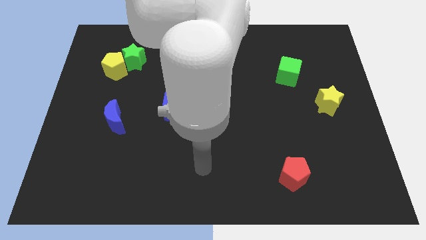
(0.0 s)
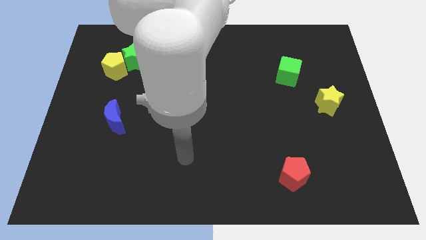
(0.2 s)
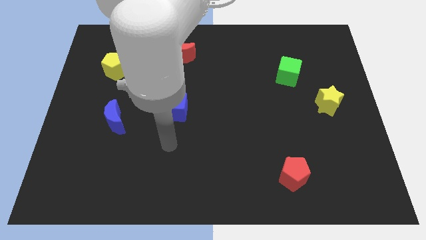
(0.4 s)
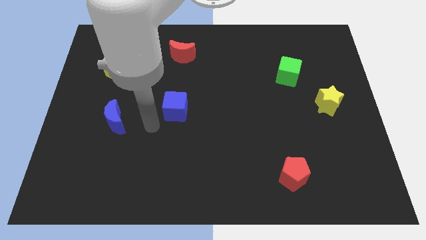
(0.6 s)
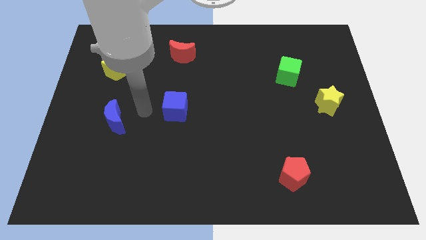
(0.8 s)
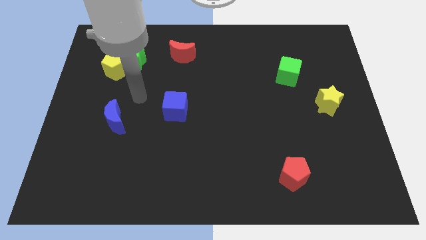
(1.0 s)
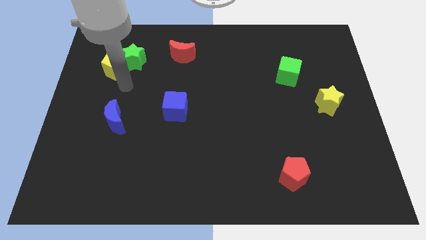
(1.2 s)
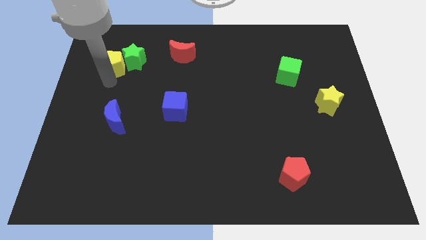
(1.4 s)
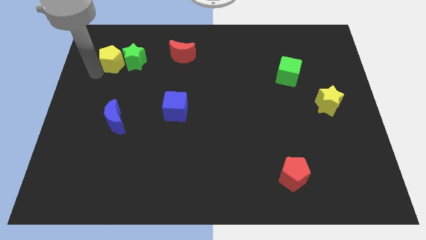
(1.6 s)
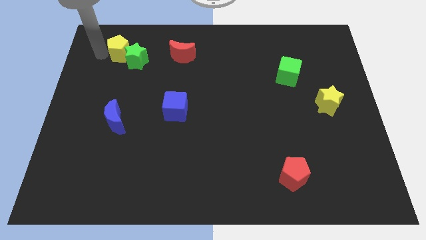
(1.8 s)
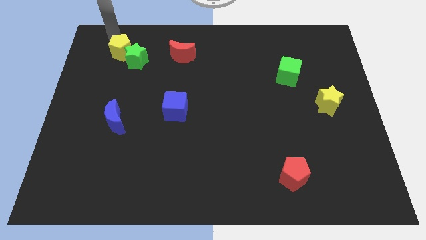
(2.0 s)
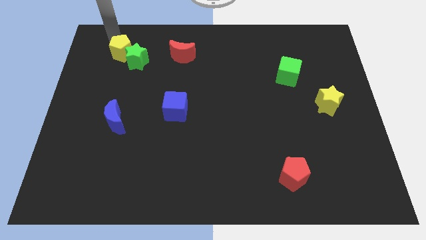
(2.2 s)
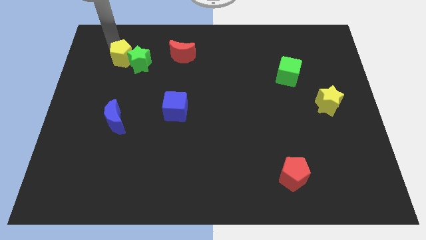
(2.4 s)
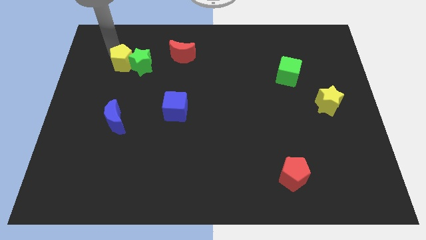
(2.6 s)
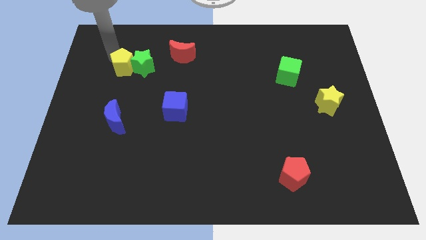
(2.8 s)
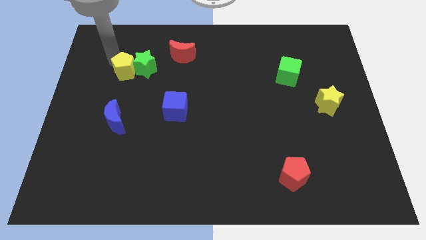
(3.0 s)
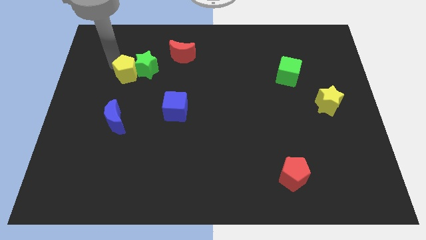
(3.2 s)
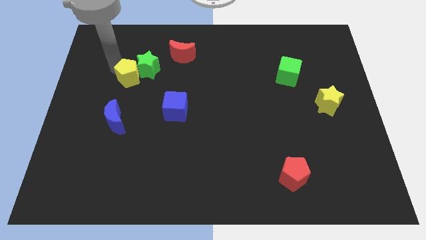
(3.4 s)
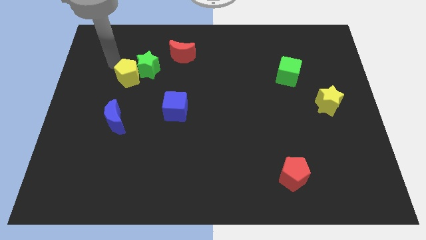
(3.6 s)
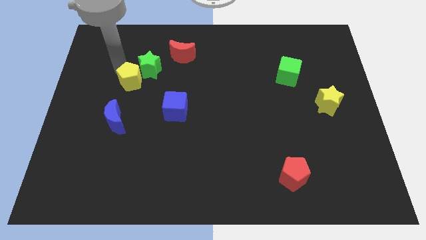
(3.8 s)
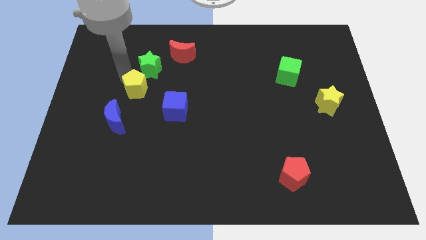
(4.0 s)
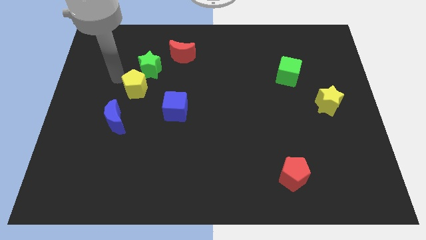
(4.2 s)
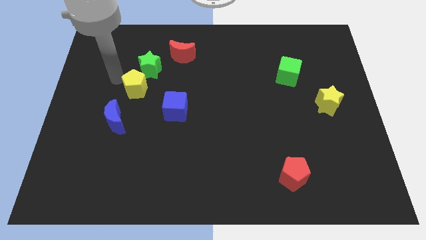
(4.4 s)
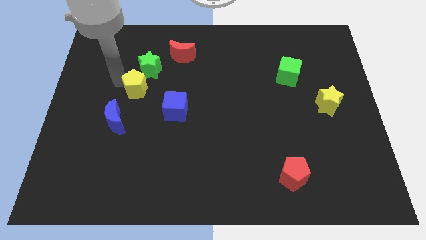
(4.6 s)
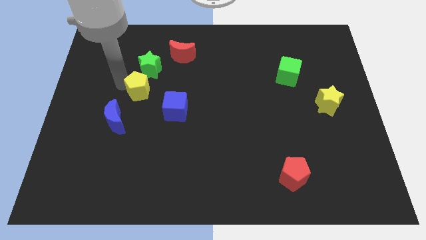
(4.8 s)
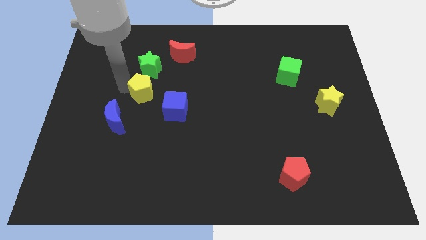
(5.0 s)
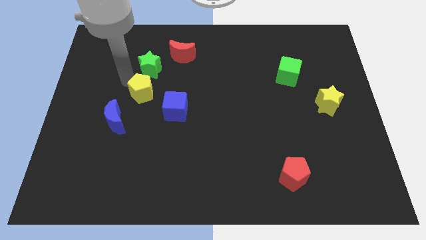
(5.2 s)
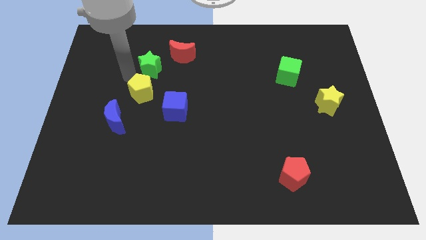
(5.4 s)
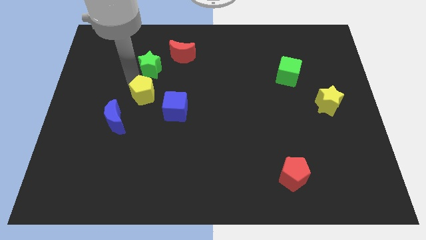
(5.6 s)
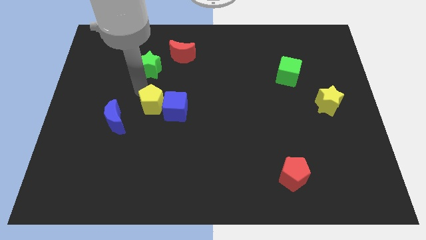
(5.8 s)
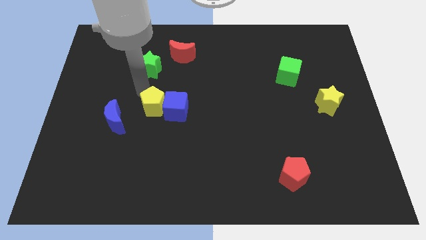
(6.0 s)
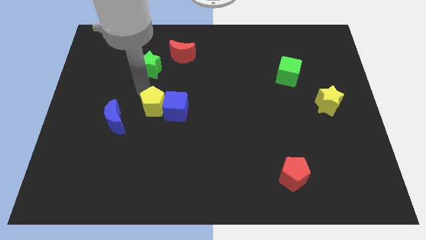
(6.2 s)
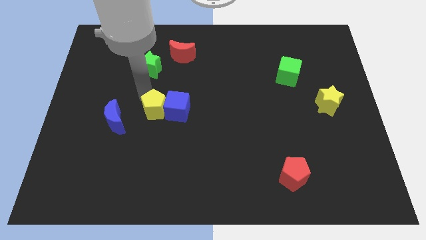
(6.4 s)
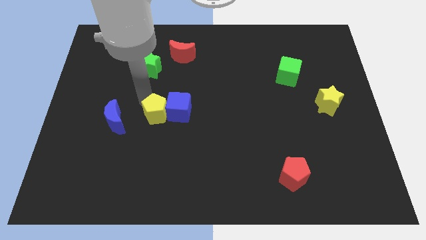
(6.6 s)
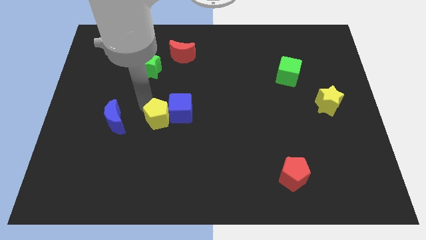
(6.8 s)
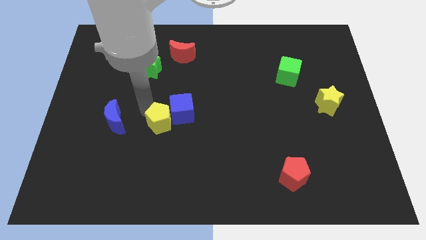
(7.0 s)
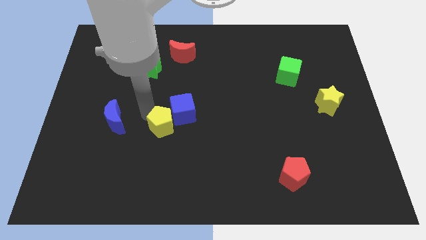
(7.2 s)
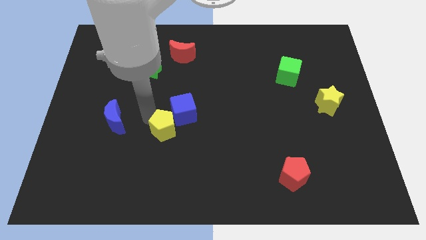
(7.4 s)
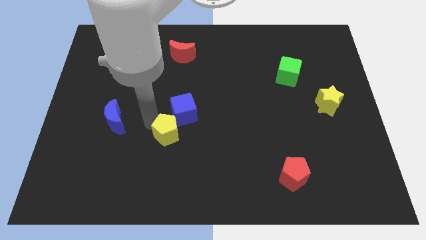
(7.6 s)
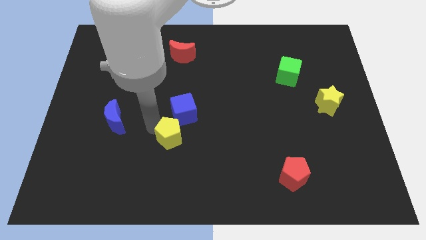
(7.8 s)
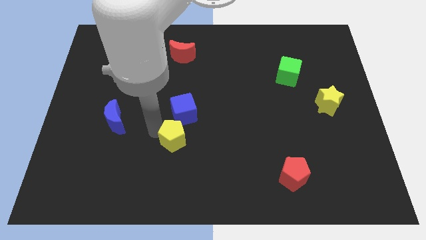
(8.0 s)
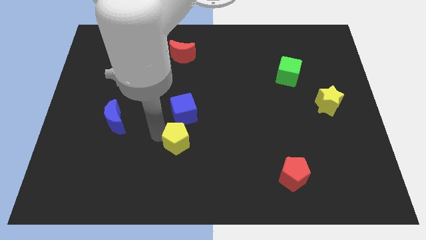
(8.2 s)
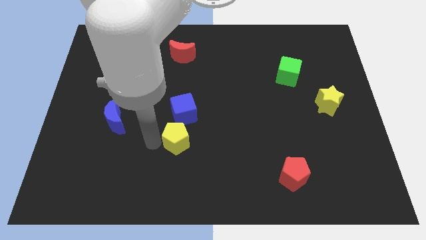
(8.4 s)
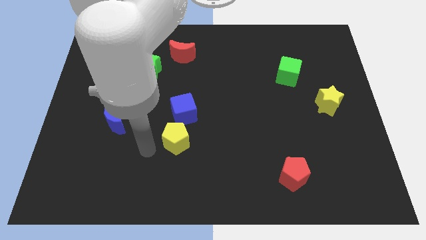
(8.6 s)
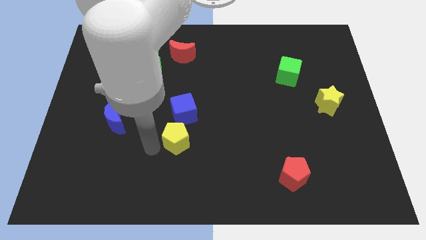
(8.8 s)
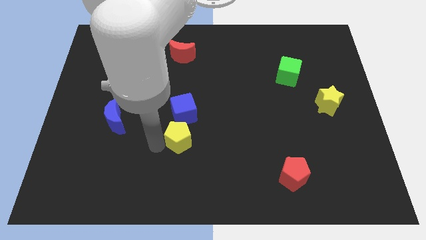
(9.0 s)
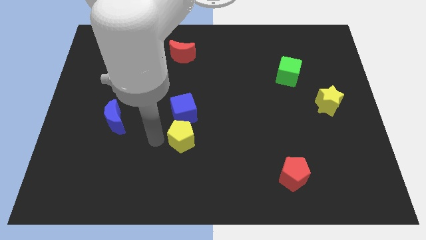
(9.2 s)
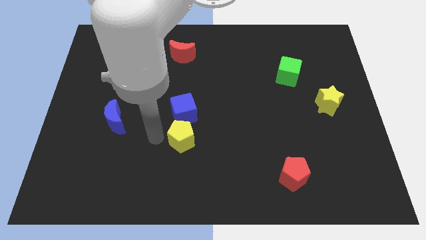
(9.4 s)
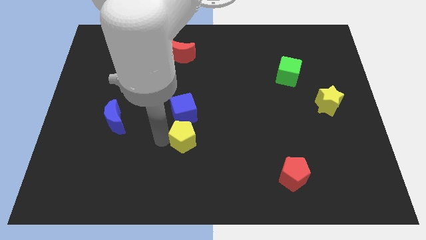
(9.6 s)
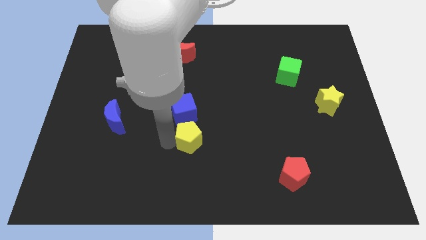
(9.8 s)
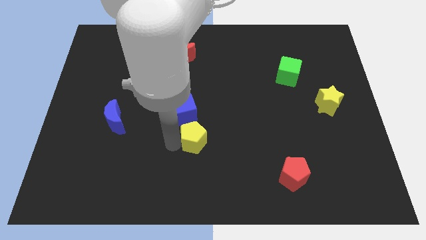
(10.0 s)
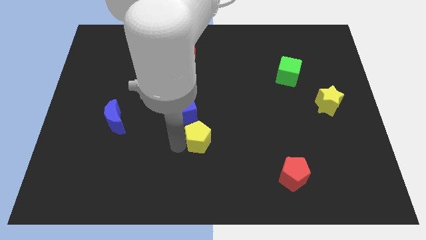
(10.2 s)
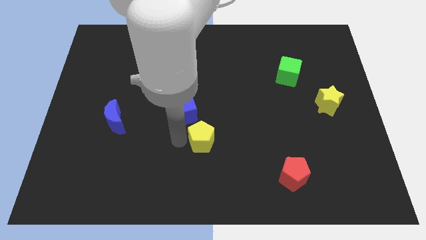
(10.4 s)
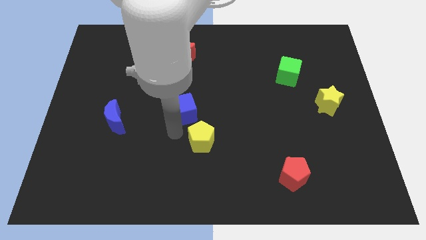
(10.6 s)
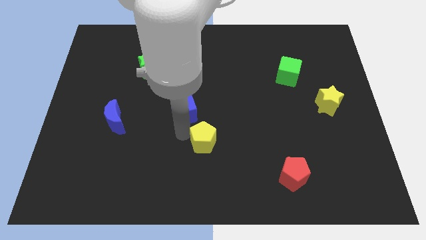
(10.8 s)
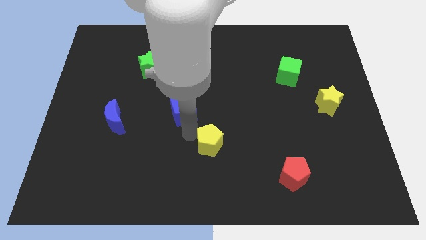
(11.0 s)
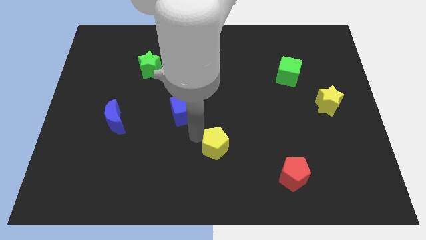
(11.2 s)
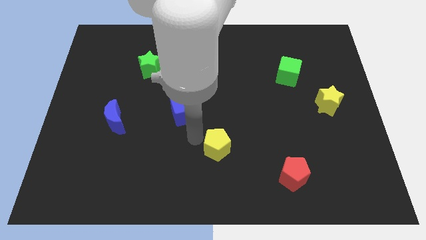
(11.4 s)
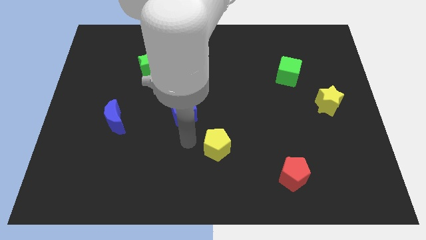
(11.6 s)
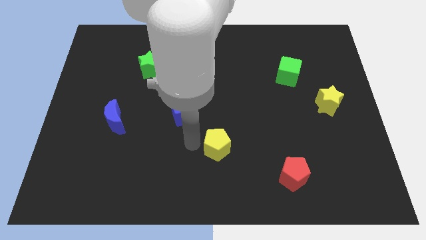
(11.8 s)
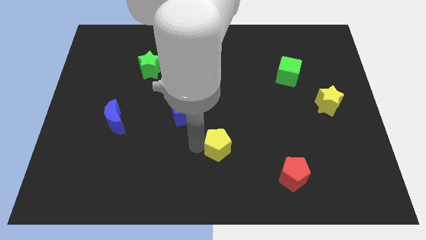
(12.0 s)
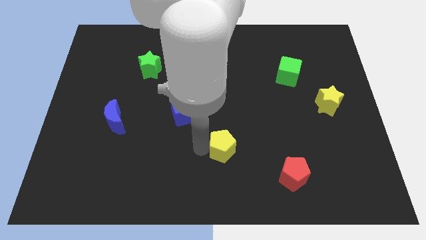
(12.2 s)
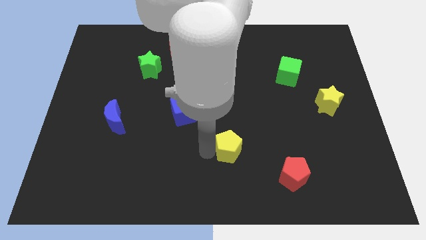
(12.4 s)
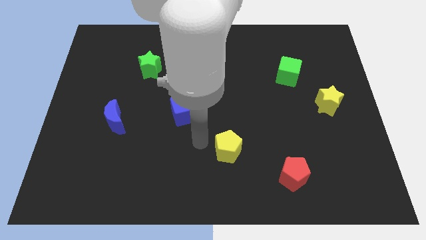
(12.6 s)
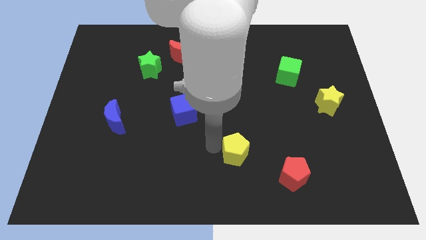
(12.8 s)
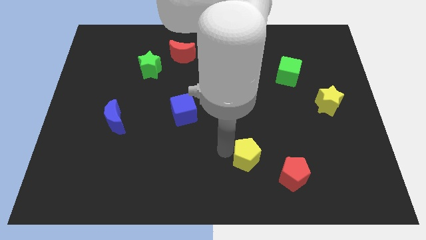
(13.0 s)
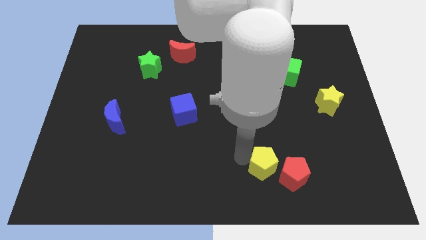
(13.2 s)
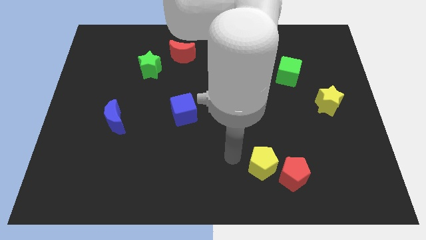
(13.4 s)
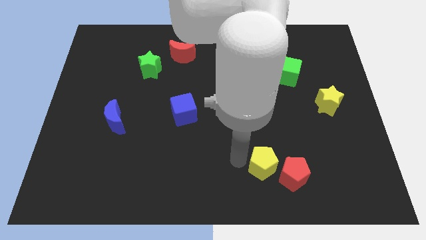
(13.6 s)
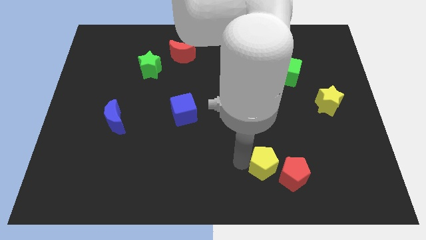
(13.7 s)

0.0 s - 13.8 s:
put the yellow pentagon to the red pentagon

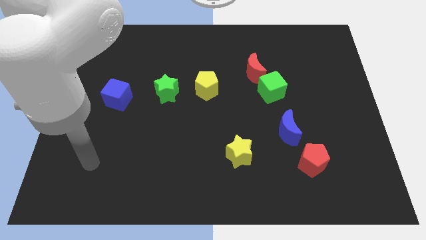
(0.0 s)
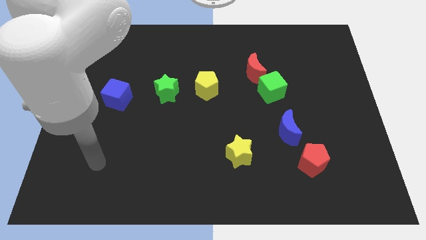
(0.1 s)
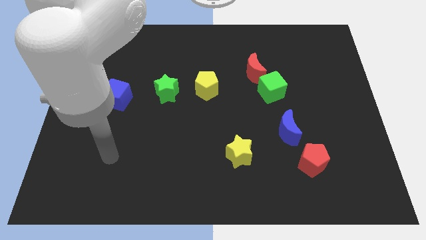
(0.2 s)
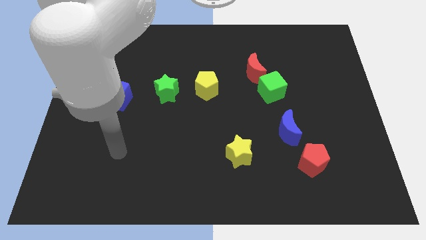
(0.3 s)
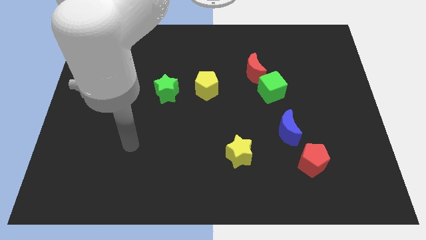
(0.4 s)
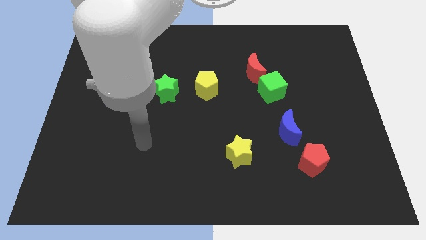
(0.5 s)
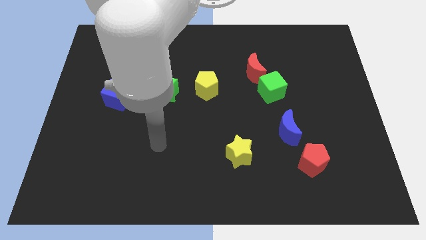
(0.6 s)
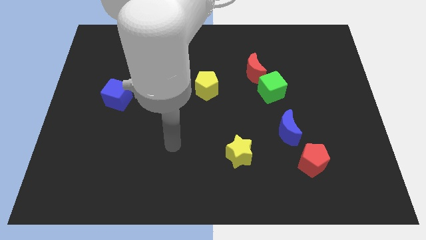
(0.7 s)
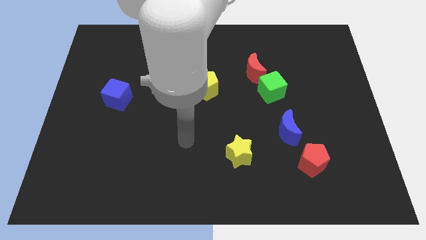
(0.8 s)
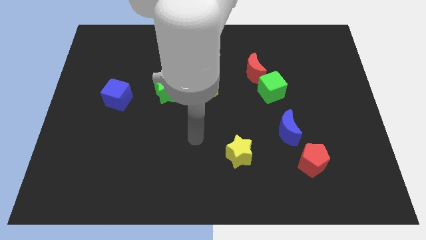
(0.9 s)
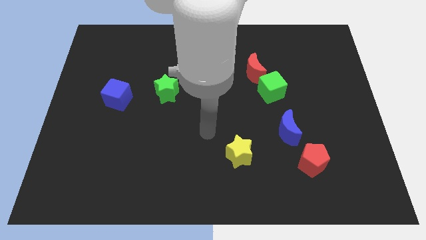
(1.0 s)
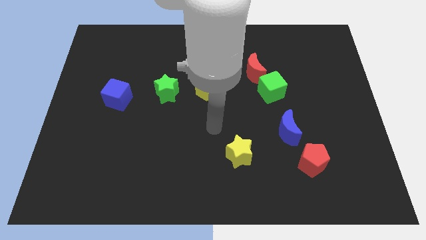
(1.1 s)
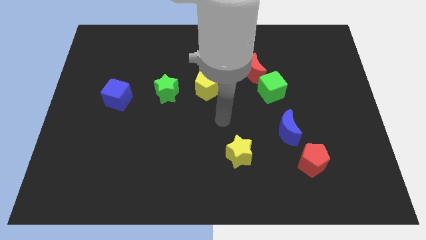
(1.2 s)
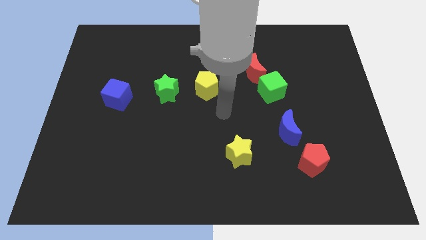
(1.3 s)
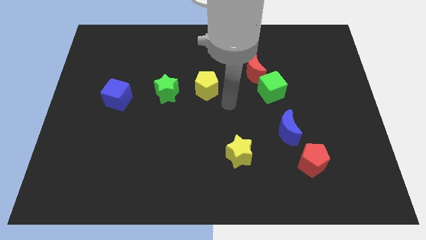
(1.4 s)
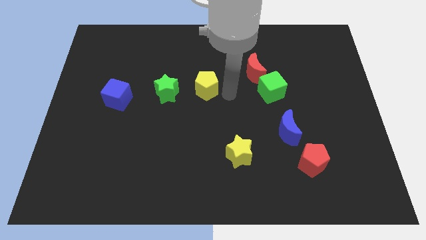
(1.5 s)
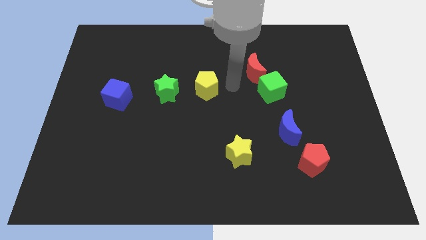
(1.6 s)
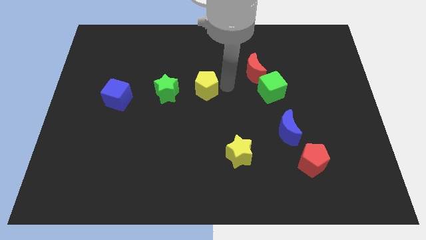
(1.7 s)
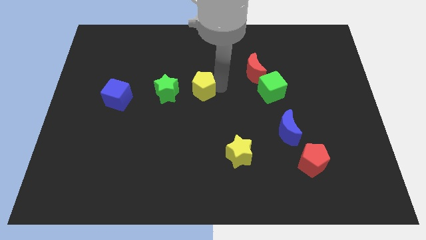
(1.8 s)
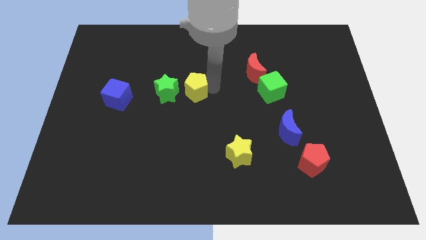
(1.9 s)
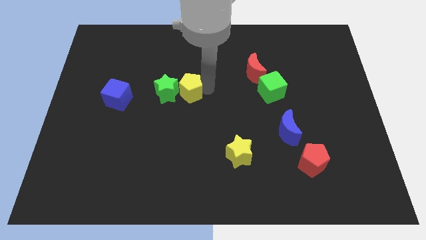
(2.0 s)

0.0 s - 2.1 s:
move the yellow pentagon towards the green star
